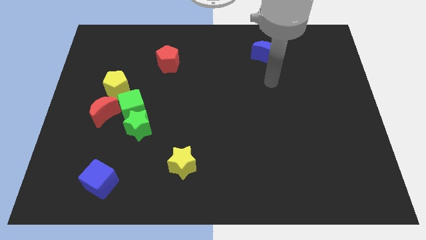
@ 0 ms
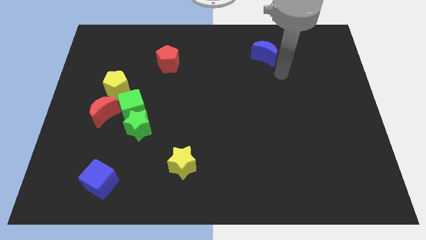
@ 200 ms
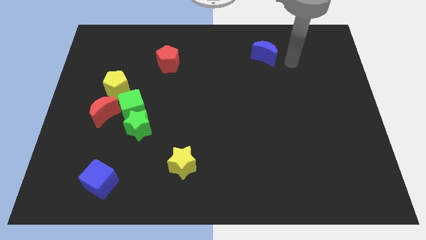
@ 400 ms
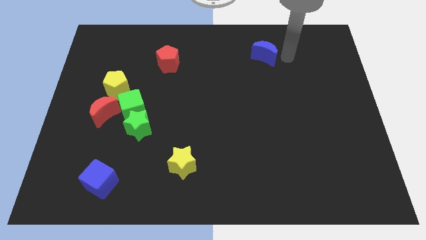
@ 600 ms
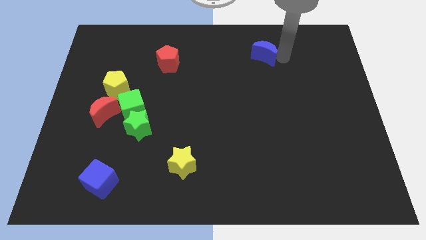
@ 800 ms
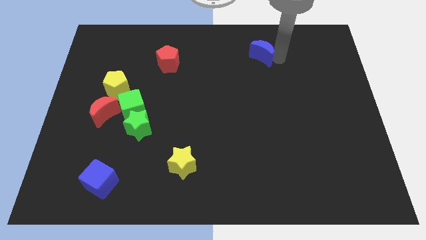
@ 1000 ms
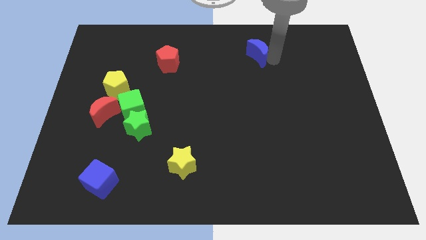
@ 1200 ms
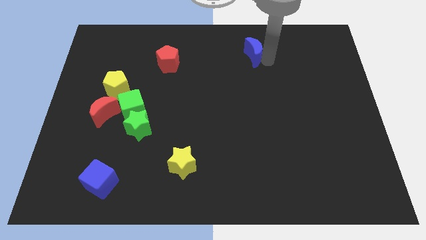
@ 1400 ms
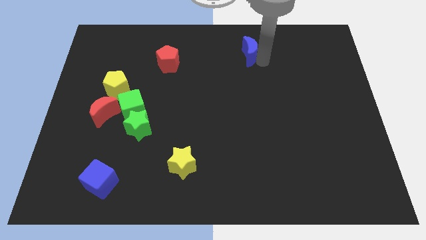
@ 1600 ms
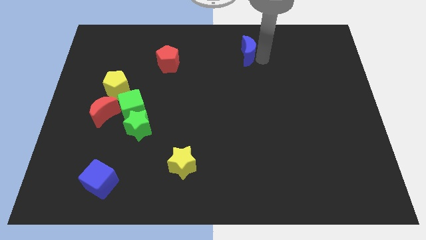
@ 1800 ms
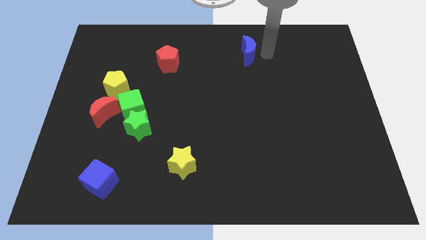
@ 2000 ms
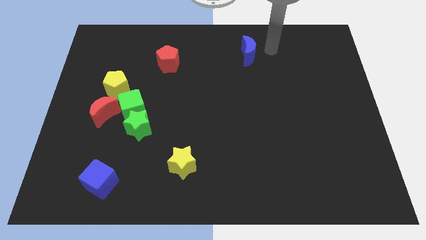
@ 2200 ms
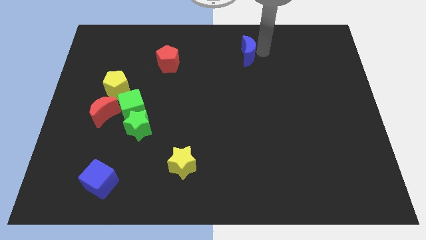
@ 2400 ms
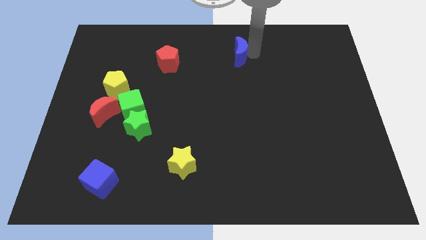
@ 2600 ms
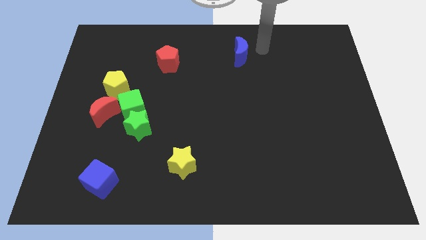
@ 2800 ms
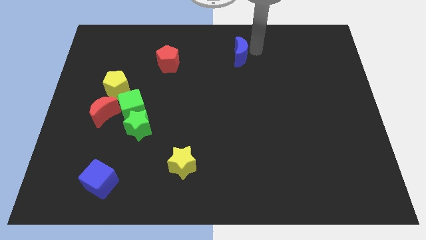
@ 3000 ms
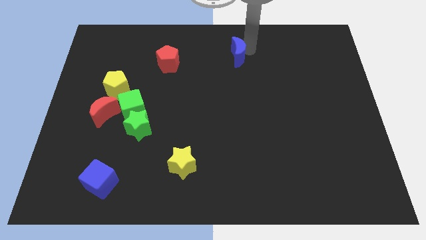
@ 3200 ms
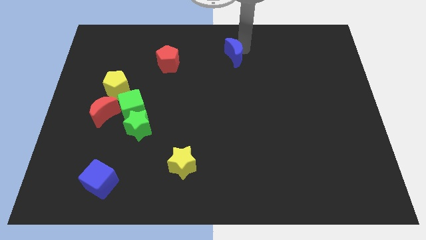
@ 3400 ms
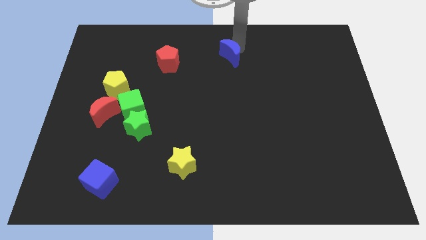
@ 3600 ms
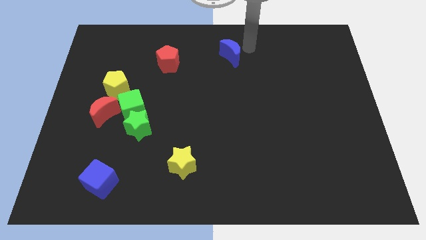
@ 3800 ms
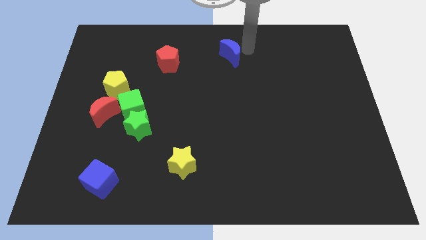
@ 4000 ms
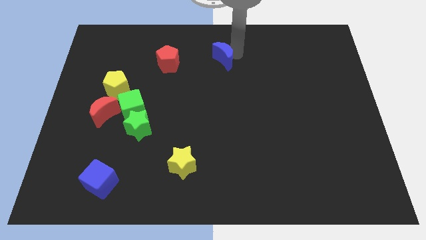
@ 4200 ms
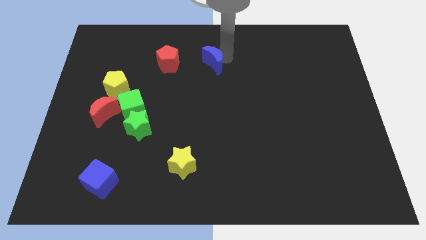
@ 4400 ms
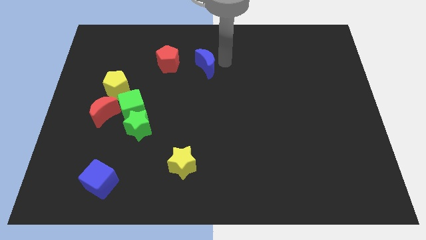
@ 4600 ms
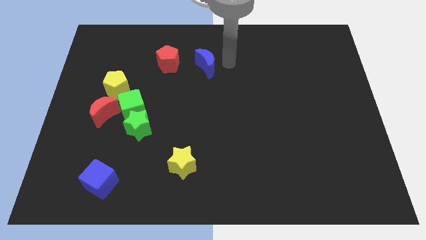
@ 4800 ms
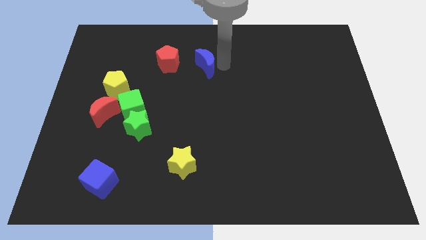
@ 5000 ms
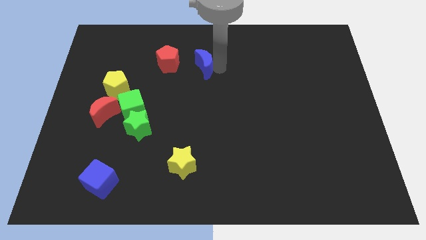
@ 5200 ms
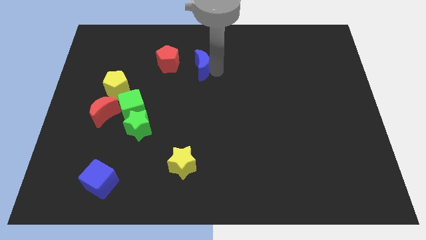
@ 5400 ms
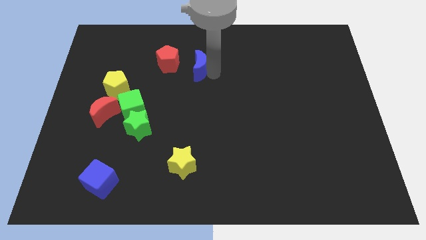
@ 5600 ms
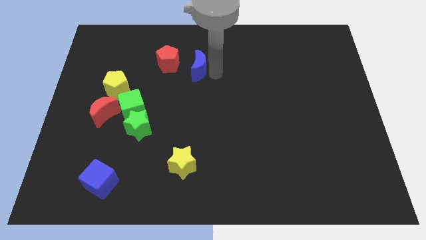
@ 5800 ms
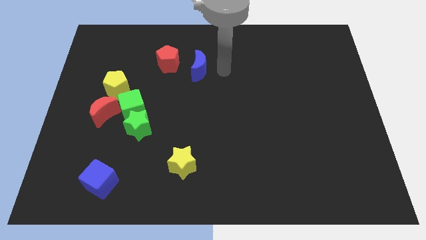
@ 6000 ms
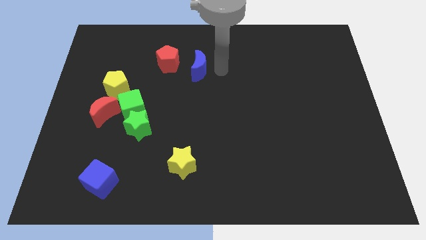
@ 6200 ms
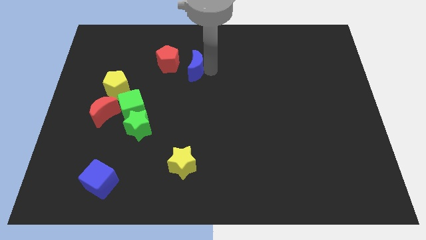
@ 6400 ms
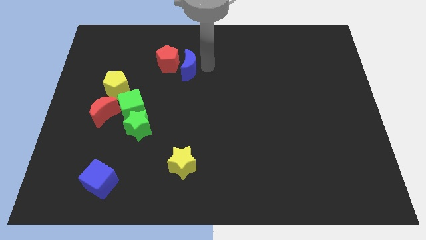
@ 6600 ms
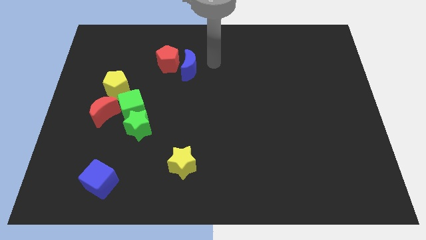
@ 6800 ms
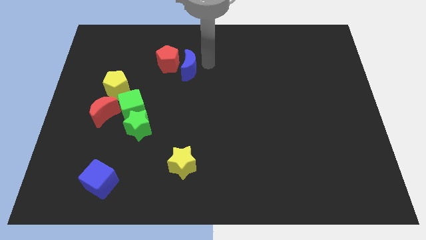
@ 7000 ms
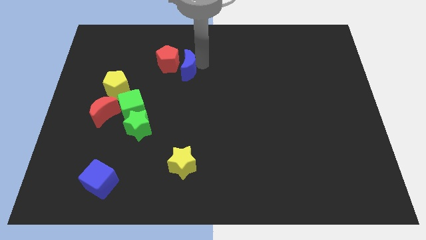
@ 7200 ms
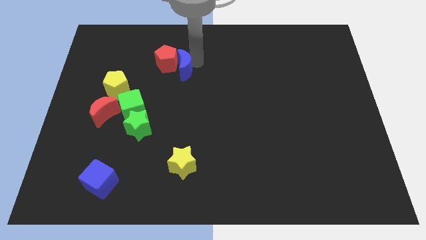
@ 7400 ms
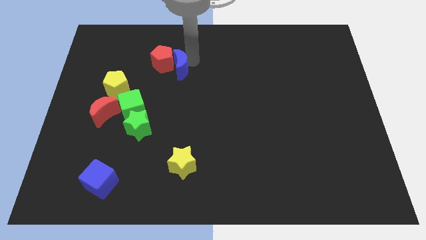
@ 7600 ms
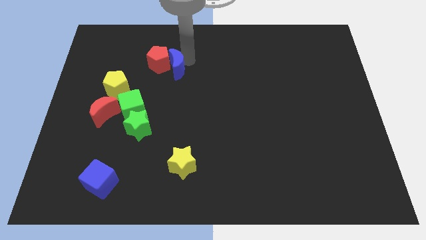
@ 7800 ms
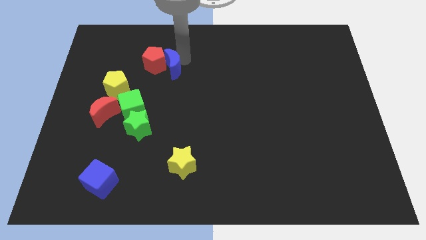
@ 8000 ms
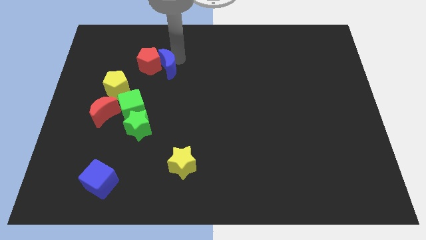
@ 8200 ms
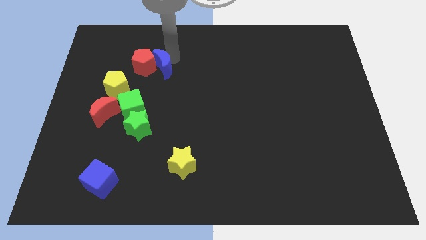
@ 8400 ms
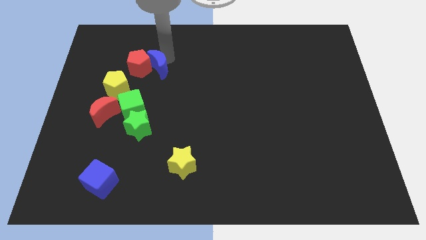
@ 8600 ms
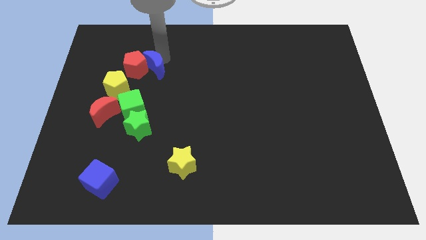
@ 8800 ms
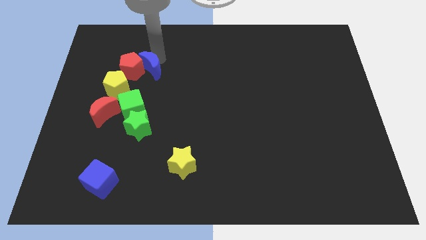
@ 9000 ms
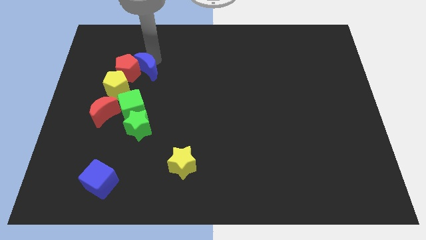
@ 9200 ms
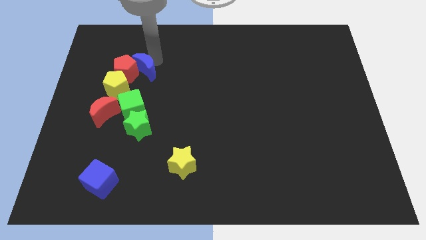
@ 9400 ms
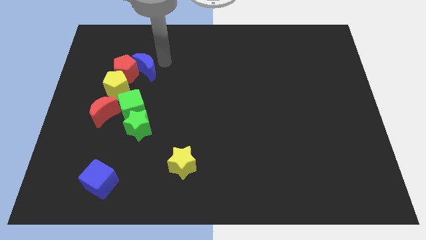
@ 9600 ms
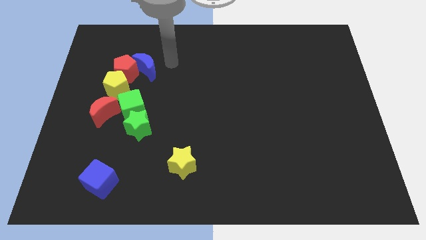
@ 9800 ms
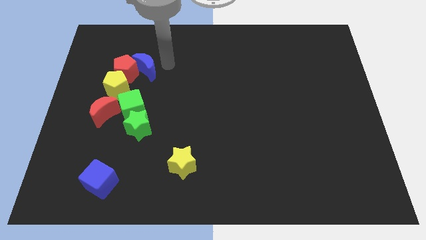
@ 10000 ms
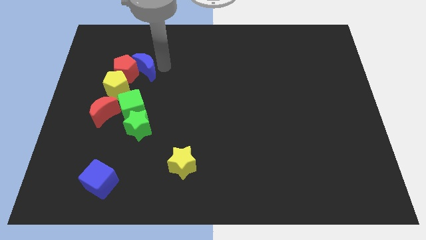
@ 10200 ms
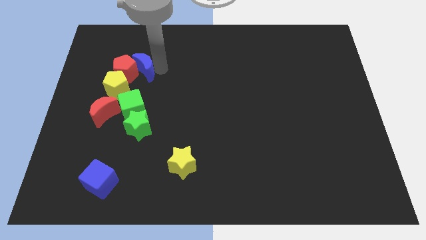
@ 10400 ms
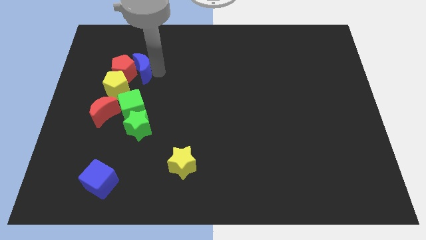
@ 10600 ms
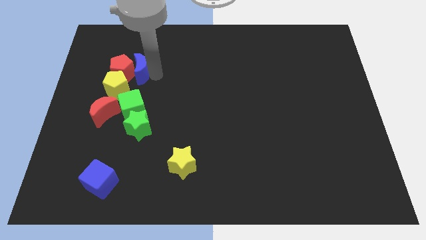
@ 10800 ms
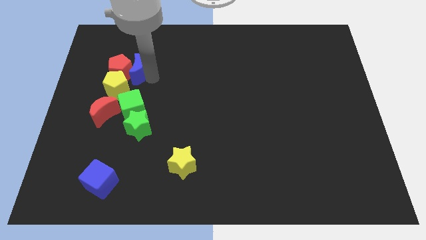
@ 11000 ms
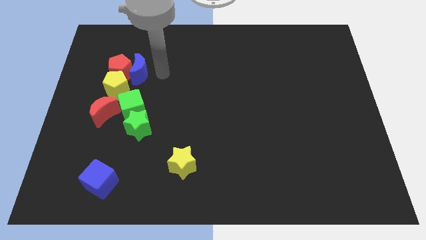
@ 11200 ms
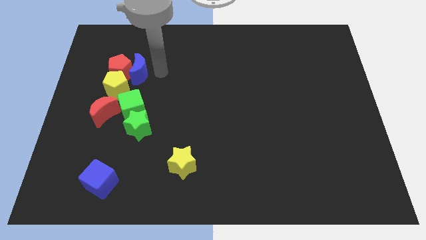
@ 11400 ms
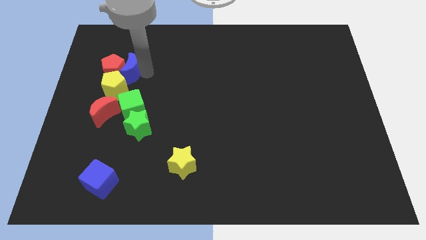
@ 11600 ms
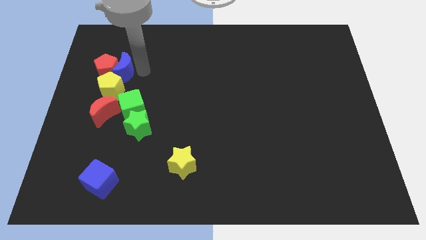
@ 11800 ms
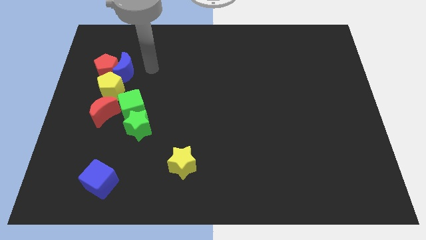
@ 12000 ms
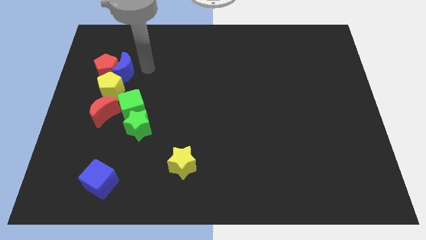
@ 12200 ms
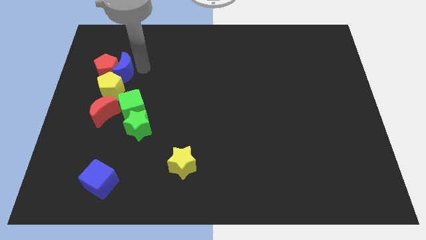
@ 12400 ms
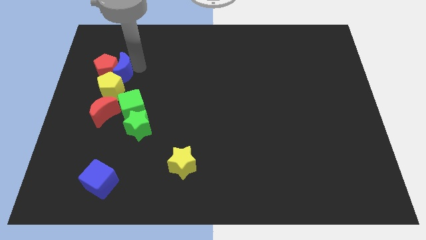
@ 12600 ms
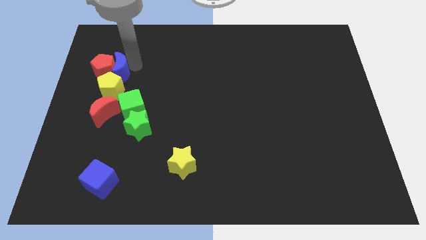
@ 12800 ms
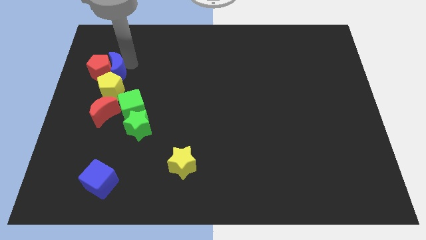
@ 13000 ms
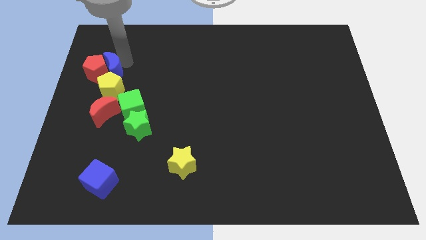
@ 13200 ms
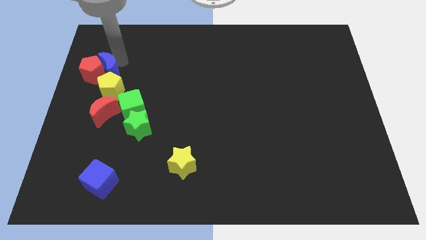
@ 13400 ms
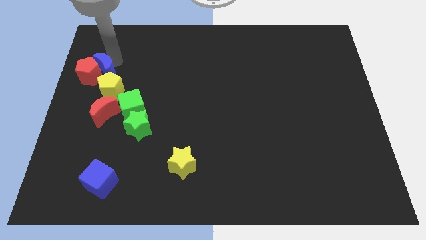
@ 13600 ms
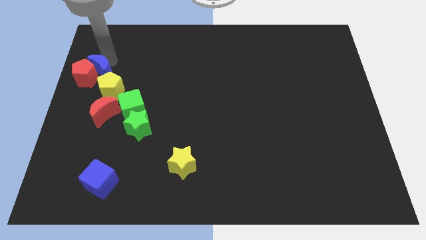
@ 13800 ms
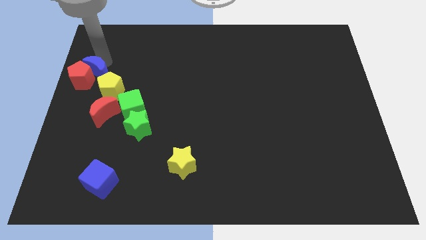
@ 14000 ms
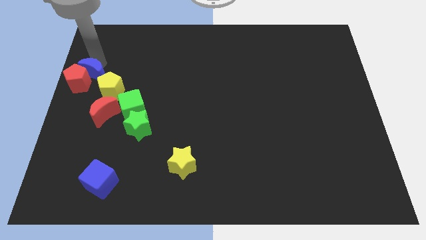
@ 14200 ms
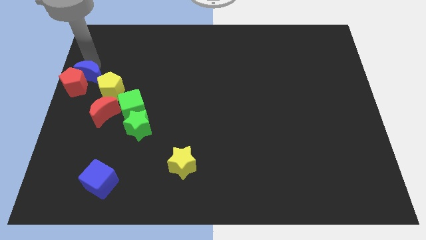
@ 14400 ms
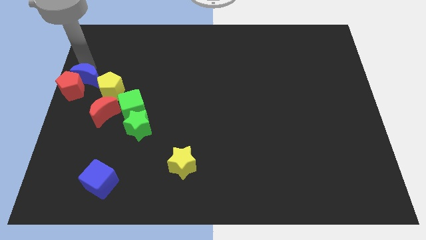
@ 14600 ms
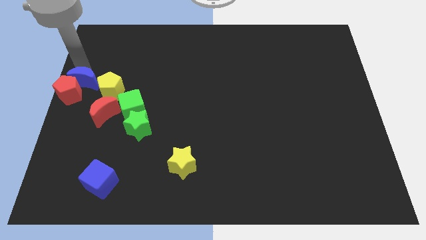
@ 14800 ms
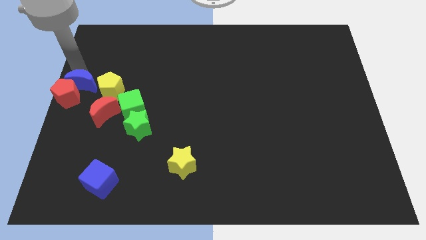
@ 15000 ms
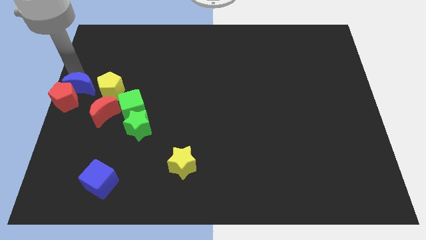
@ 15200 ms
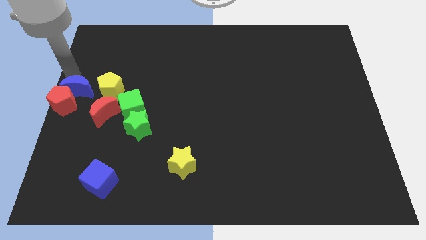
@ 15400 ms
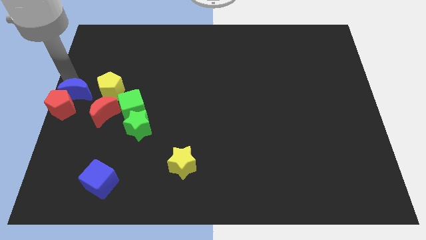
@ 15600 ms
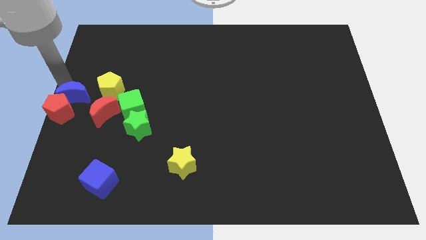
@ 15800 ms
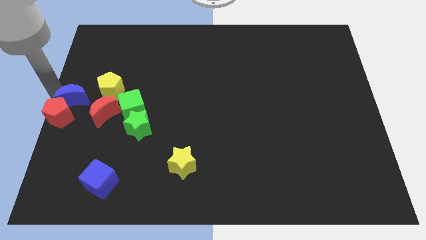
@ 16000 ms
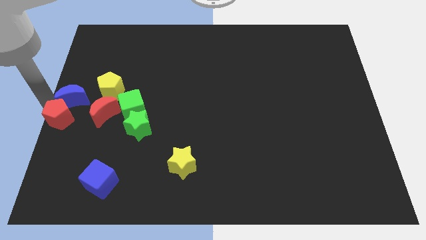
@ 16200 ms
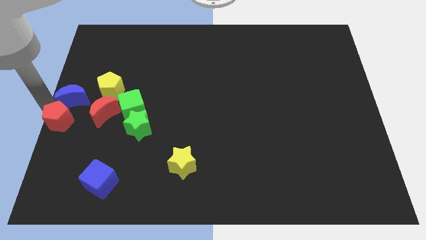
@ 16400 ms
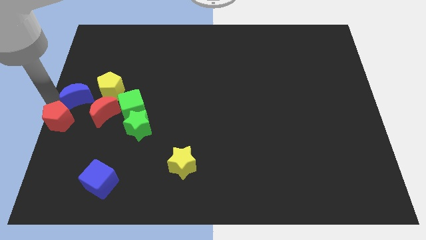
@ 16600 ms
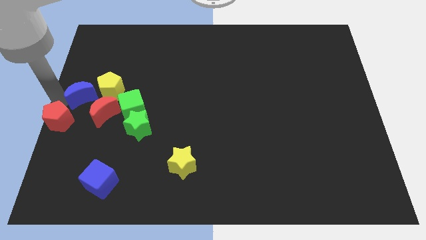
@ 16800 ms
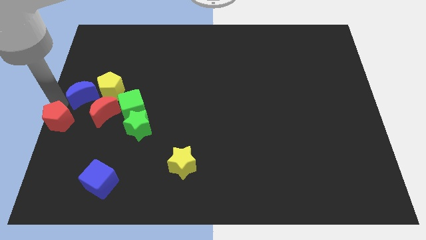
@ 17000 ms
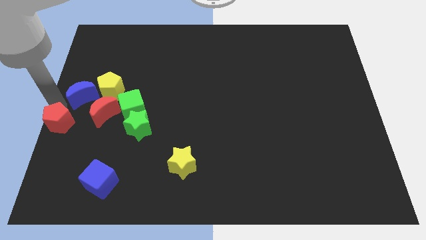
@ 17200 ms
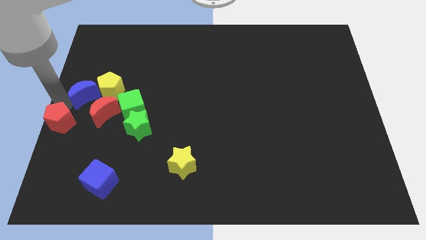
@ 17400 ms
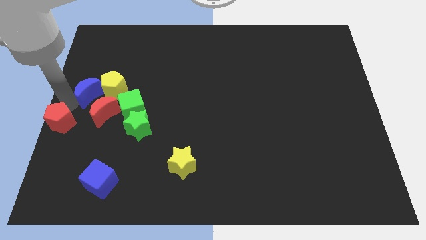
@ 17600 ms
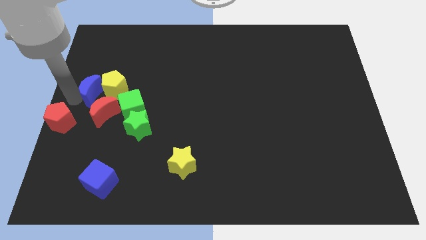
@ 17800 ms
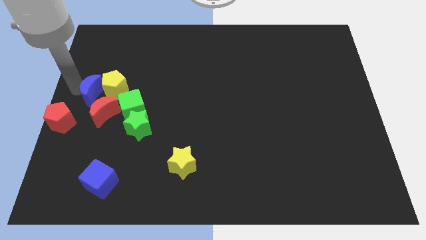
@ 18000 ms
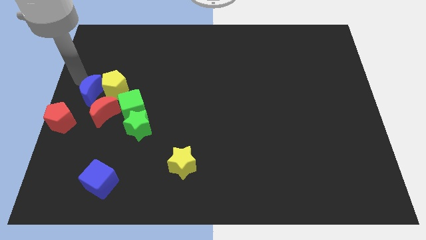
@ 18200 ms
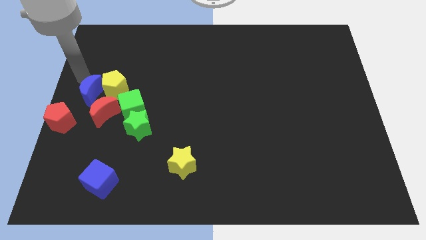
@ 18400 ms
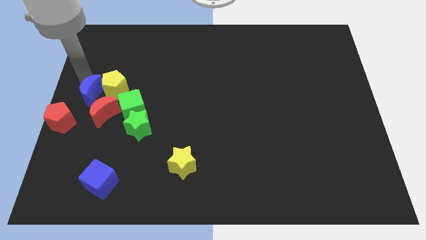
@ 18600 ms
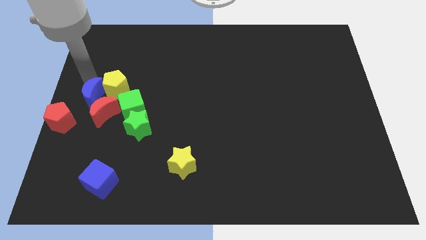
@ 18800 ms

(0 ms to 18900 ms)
move the blue moon to the red moon
